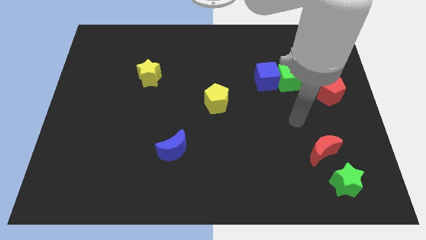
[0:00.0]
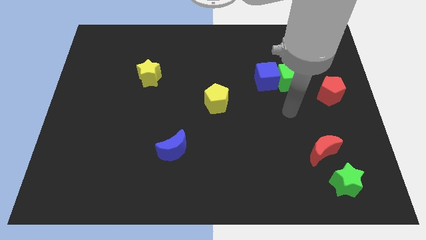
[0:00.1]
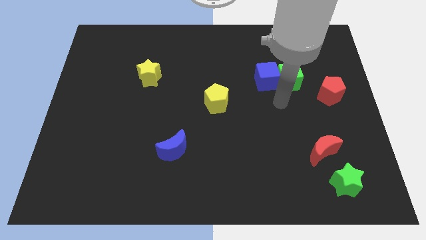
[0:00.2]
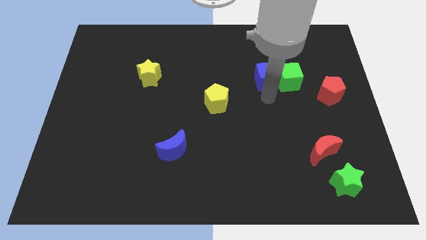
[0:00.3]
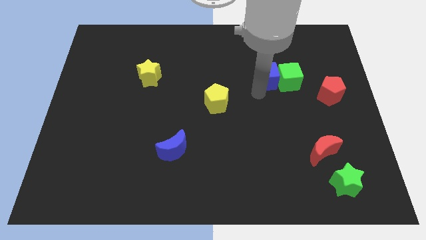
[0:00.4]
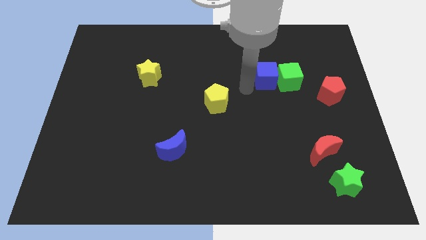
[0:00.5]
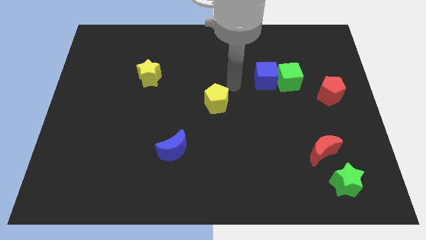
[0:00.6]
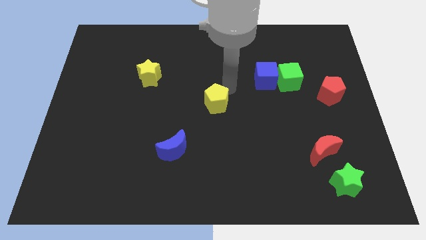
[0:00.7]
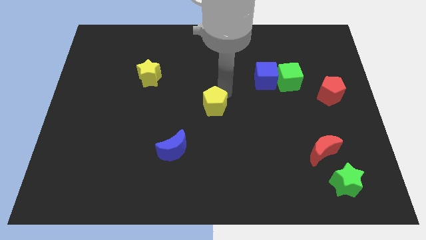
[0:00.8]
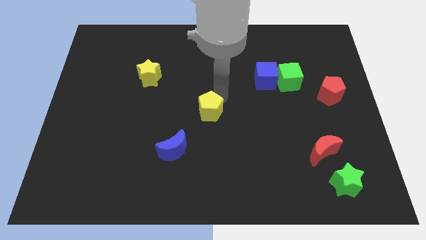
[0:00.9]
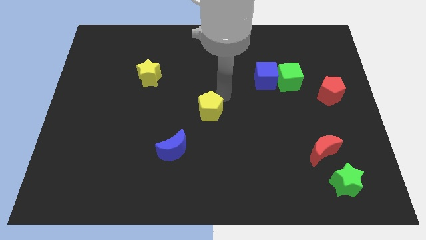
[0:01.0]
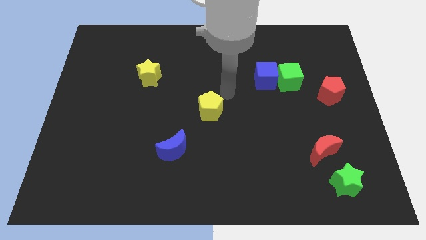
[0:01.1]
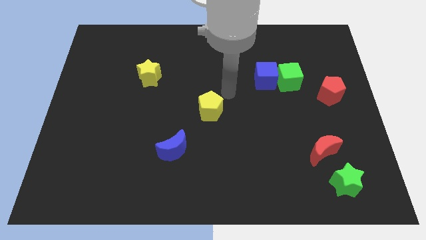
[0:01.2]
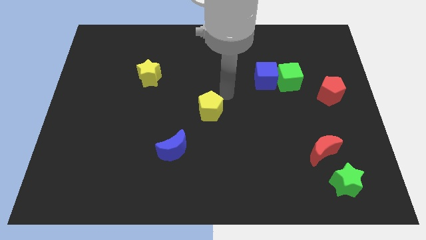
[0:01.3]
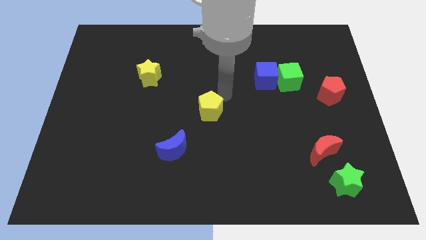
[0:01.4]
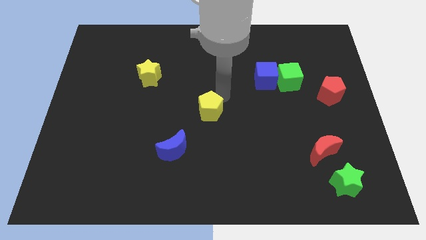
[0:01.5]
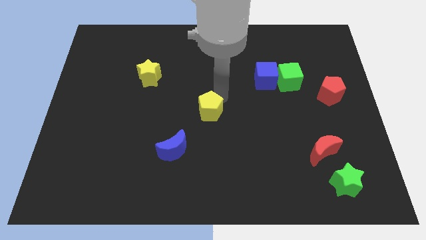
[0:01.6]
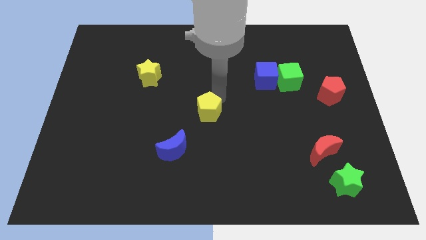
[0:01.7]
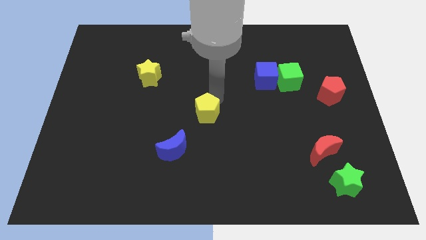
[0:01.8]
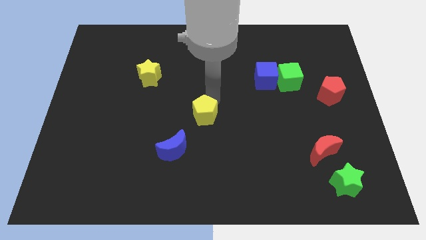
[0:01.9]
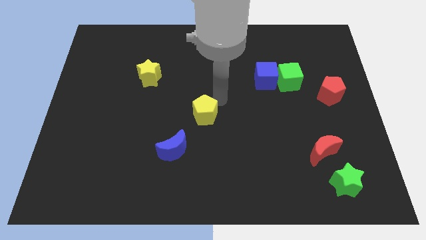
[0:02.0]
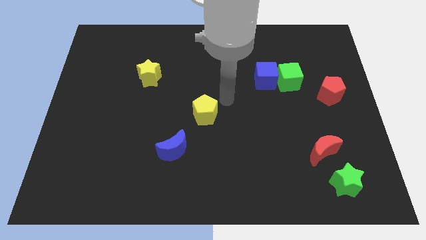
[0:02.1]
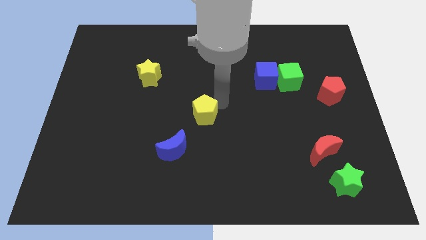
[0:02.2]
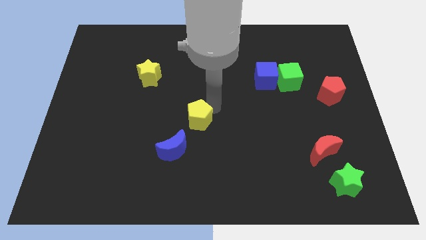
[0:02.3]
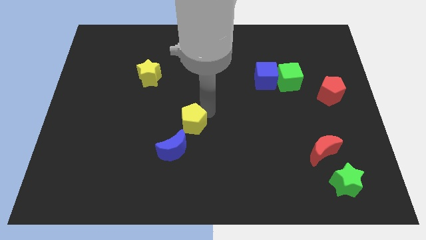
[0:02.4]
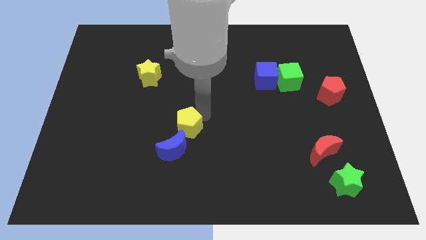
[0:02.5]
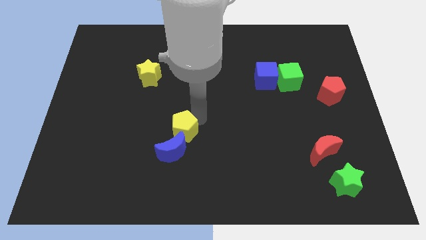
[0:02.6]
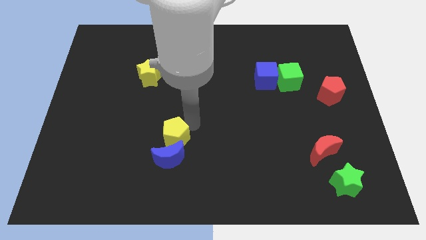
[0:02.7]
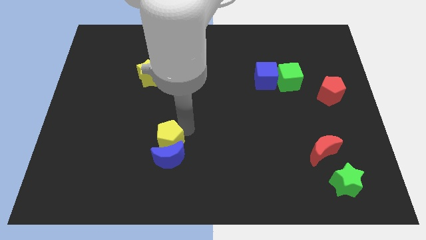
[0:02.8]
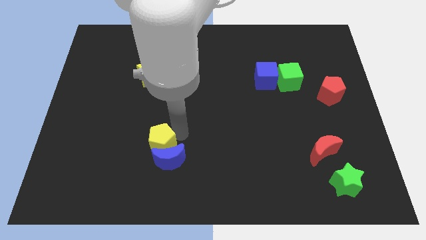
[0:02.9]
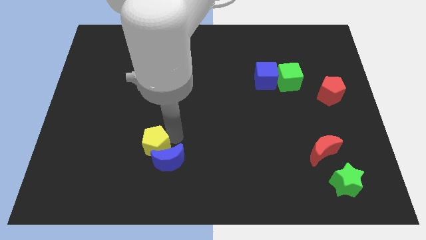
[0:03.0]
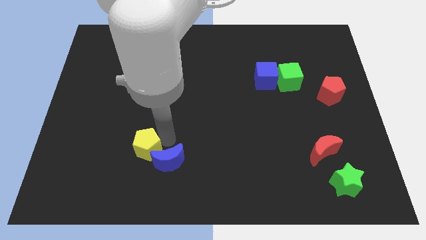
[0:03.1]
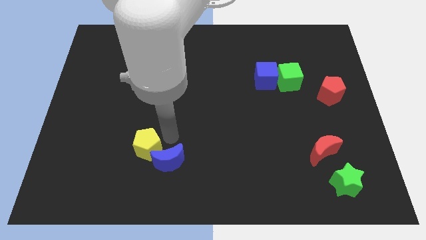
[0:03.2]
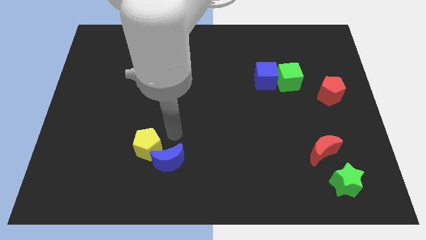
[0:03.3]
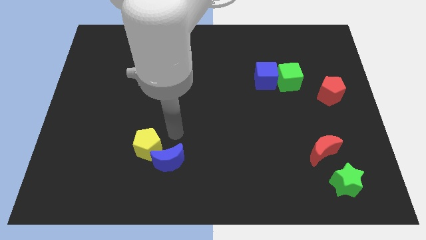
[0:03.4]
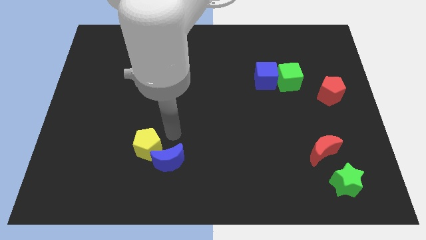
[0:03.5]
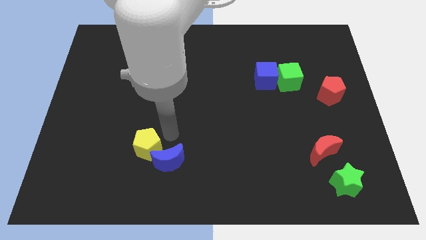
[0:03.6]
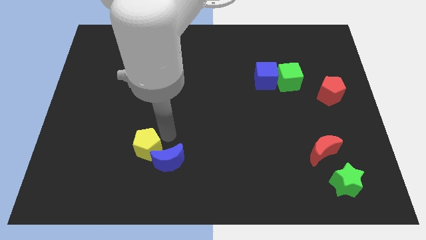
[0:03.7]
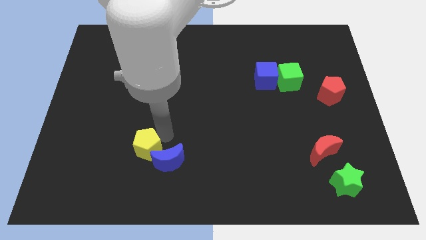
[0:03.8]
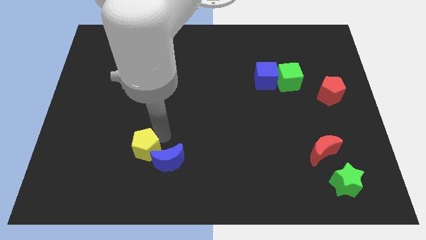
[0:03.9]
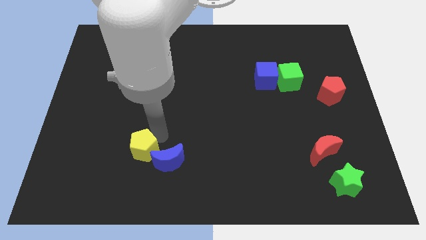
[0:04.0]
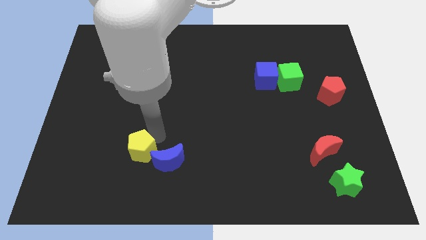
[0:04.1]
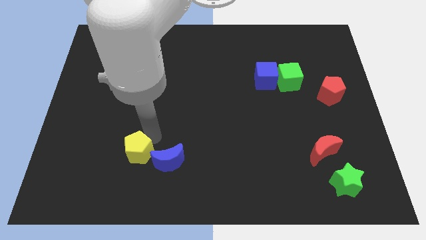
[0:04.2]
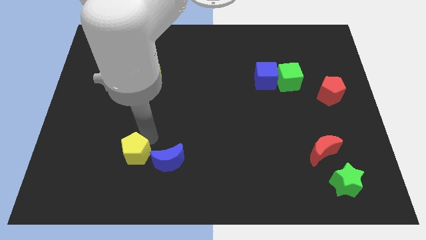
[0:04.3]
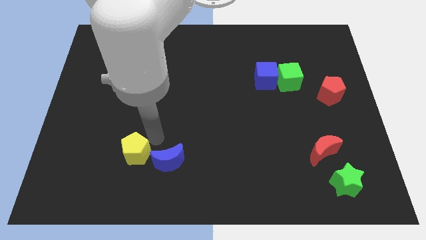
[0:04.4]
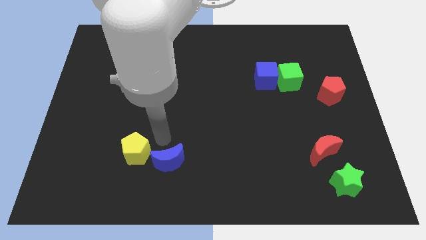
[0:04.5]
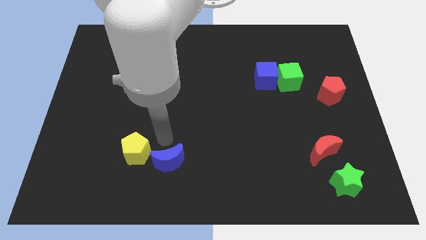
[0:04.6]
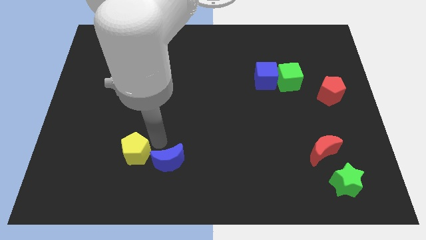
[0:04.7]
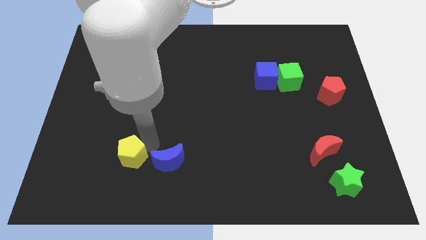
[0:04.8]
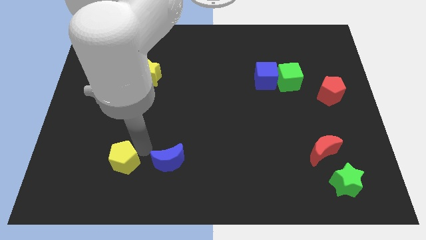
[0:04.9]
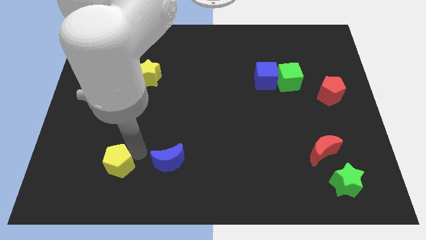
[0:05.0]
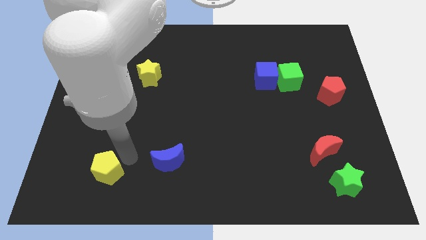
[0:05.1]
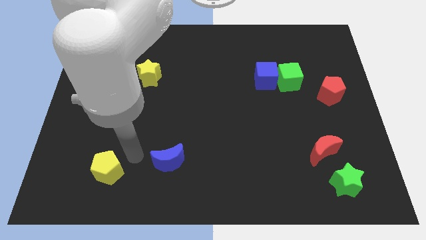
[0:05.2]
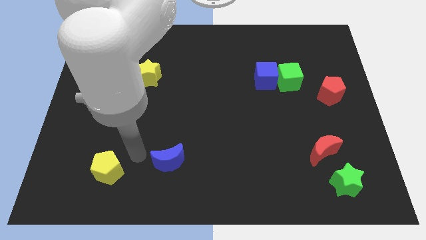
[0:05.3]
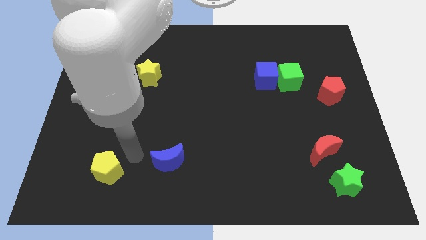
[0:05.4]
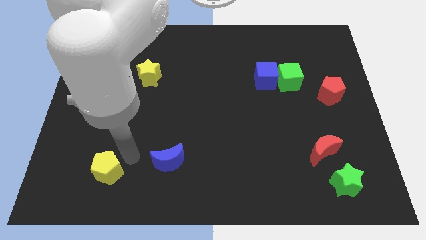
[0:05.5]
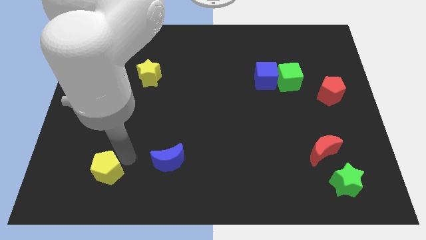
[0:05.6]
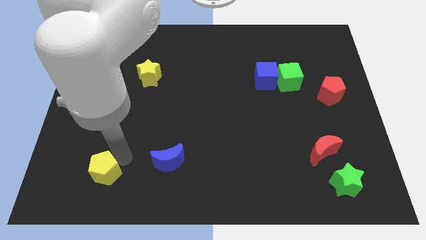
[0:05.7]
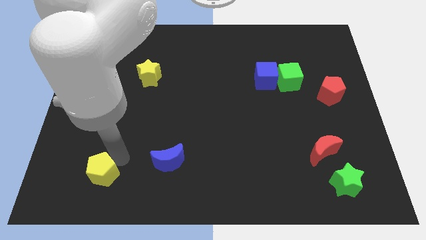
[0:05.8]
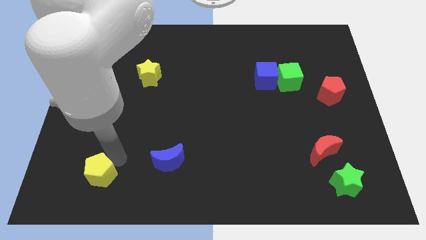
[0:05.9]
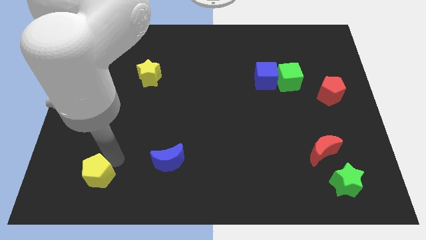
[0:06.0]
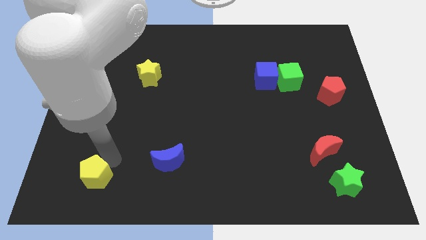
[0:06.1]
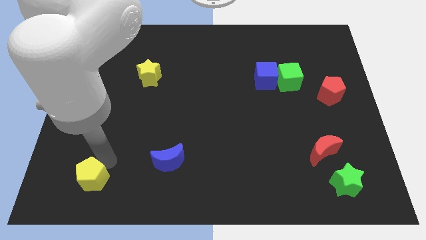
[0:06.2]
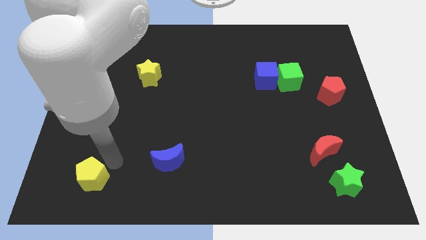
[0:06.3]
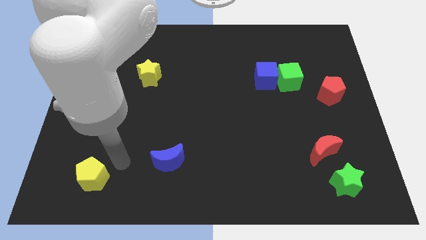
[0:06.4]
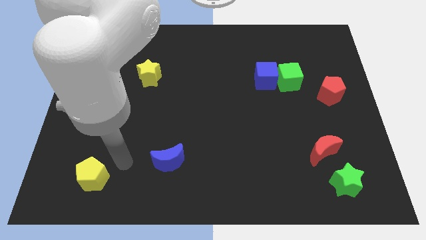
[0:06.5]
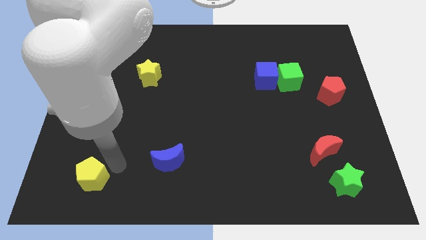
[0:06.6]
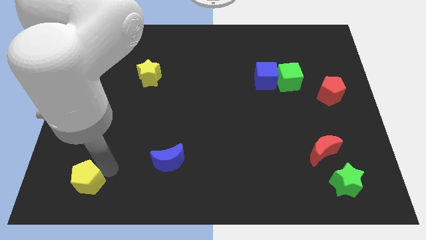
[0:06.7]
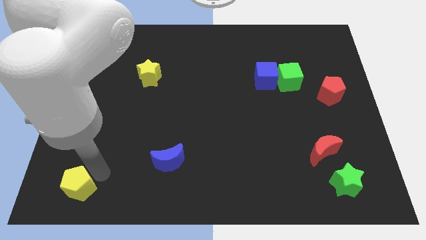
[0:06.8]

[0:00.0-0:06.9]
put the yellow pentagon to the bottom left

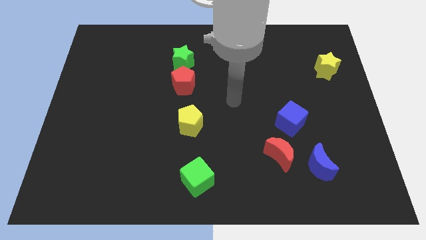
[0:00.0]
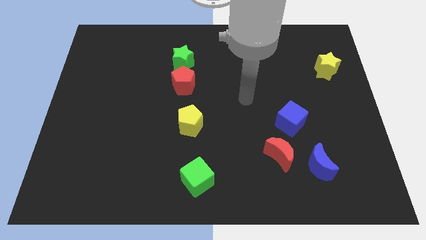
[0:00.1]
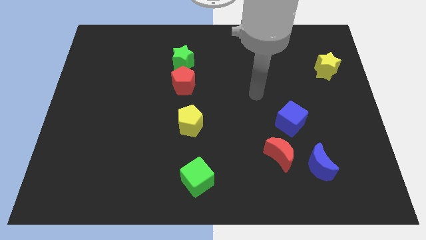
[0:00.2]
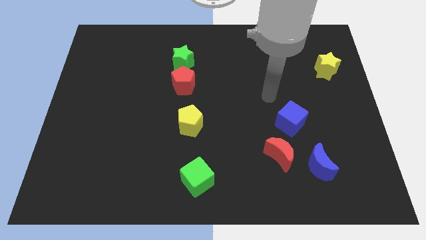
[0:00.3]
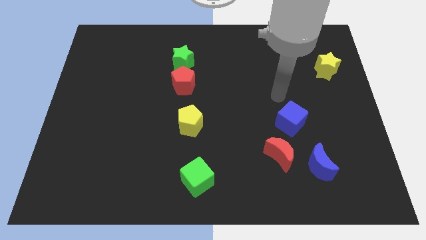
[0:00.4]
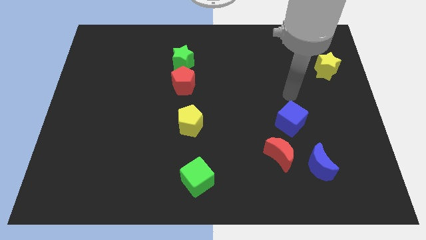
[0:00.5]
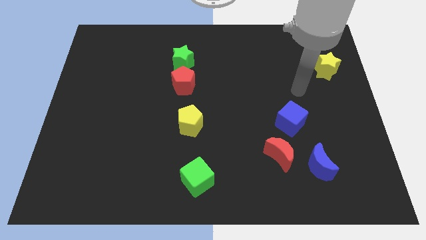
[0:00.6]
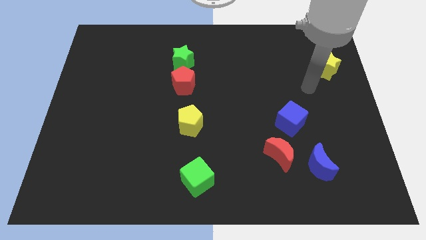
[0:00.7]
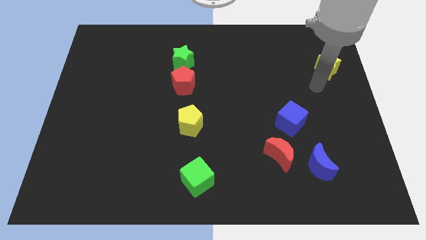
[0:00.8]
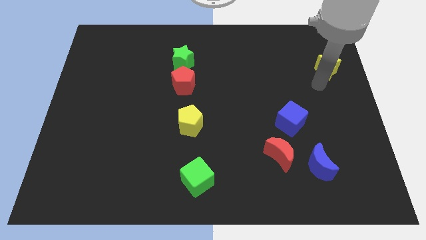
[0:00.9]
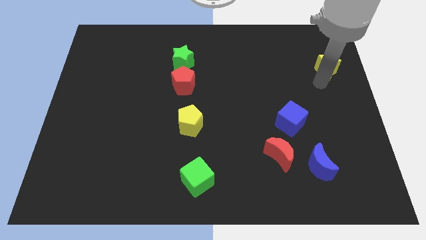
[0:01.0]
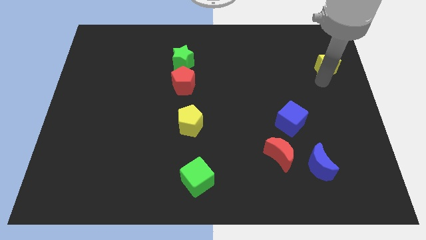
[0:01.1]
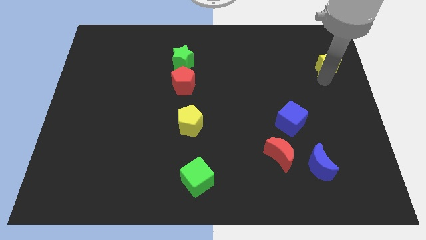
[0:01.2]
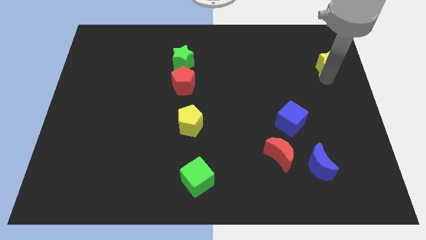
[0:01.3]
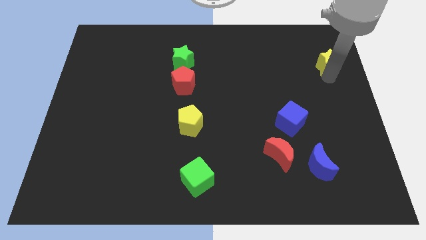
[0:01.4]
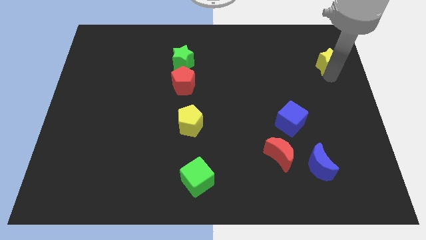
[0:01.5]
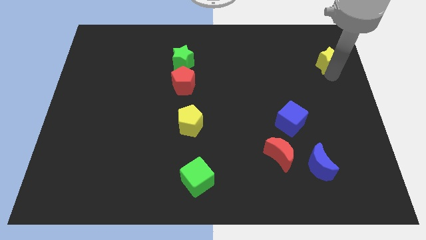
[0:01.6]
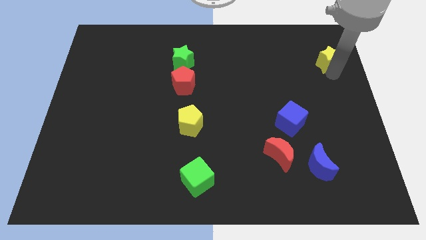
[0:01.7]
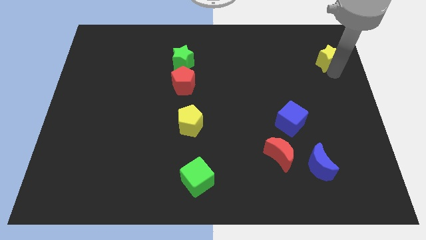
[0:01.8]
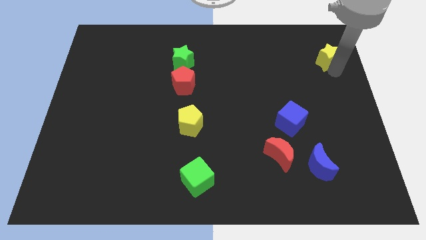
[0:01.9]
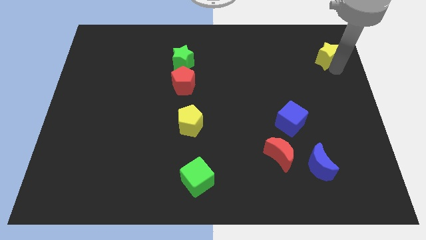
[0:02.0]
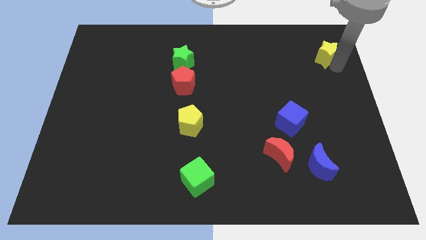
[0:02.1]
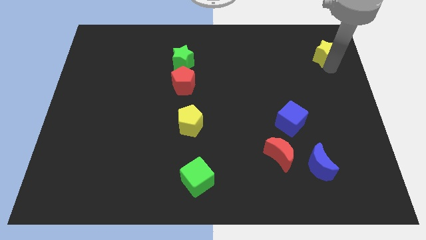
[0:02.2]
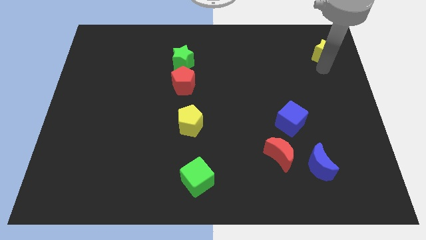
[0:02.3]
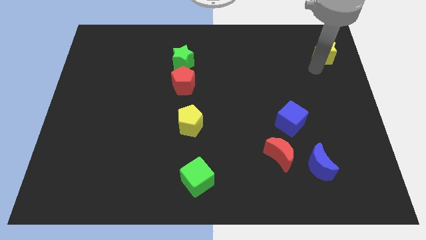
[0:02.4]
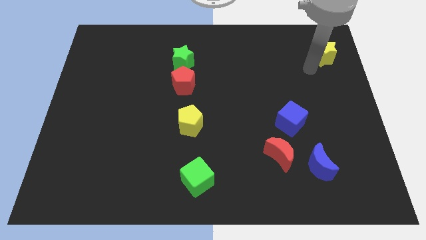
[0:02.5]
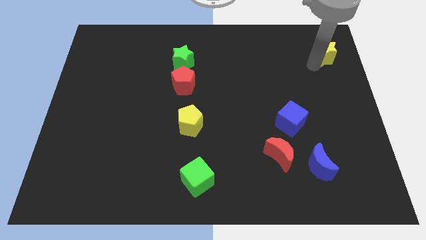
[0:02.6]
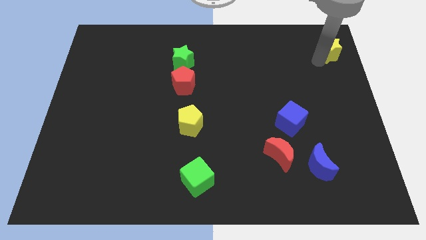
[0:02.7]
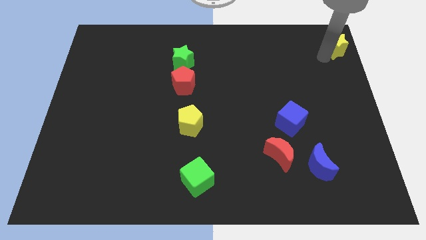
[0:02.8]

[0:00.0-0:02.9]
push the yellow star to the upper right corner
